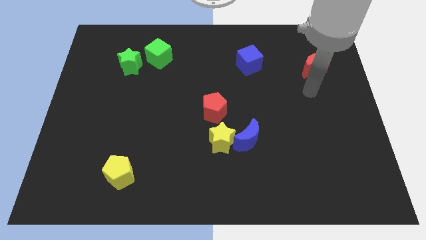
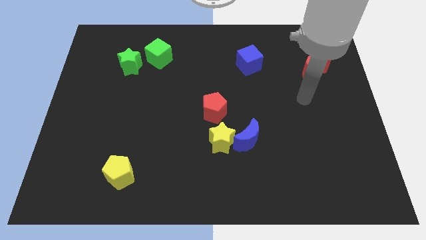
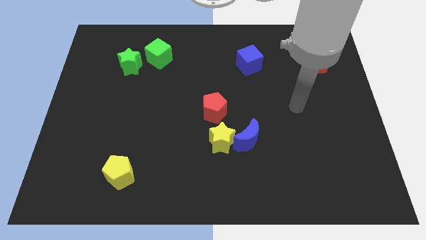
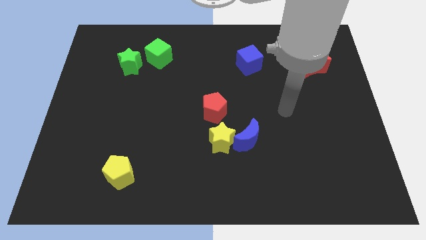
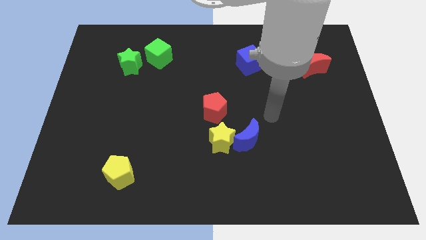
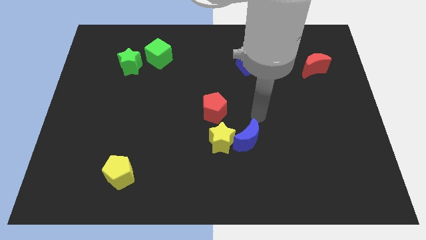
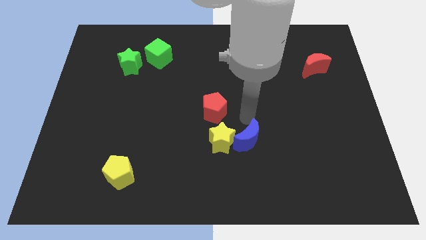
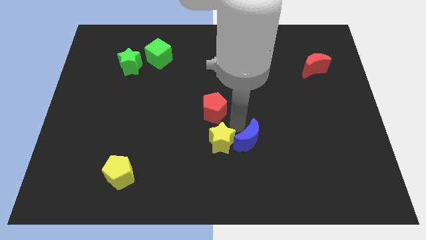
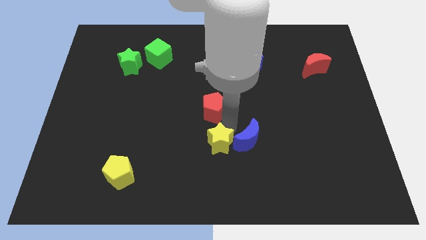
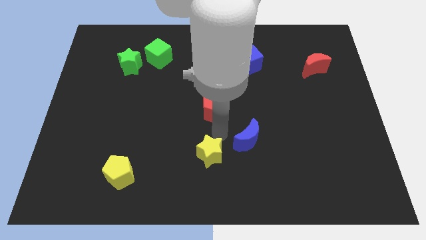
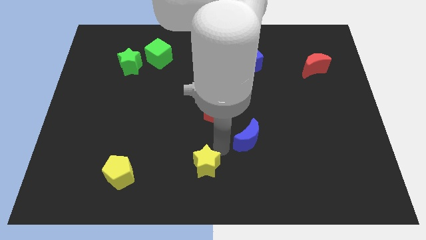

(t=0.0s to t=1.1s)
move the blue moon away from the yellow star

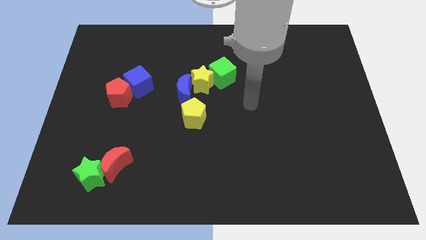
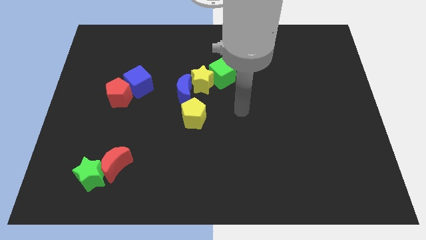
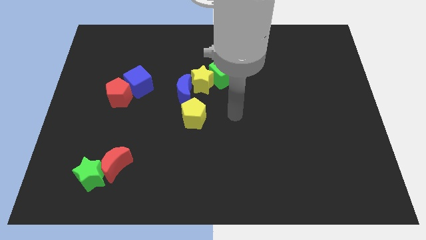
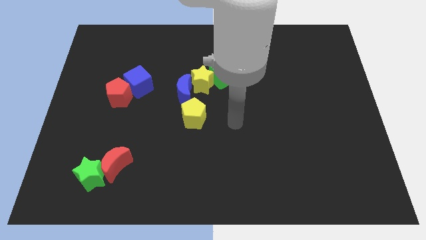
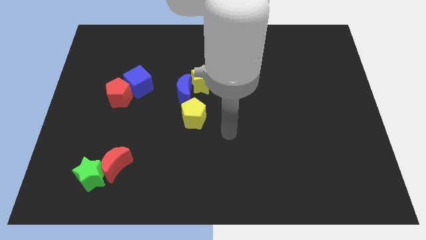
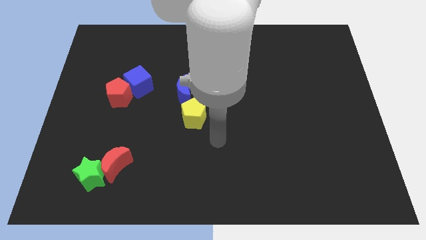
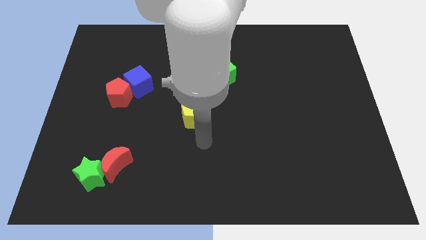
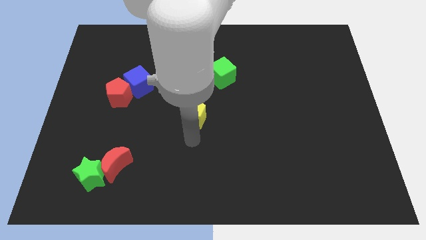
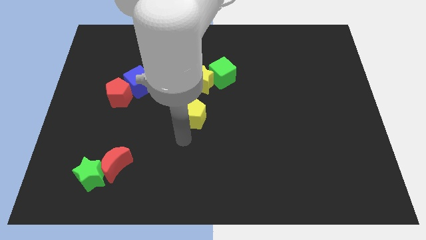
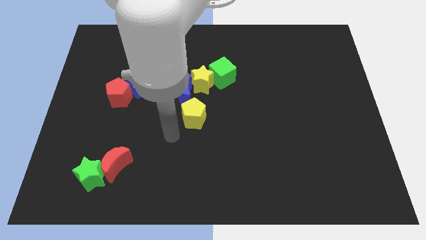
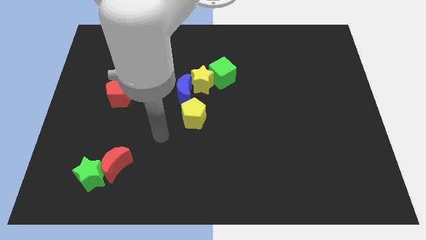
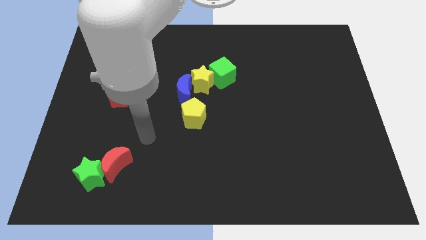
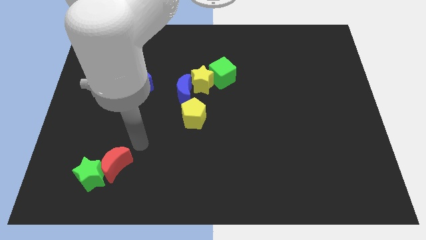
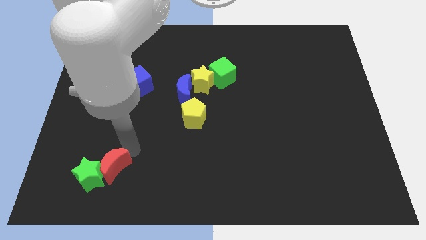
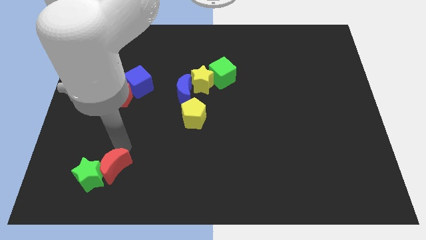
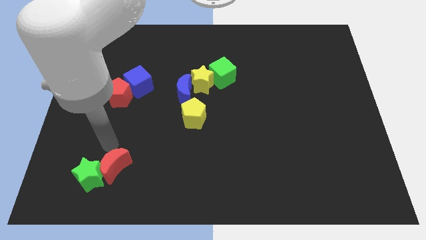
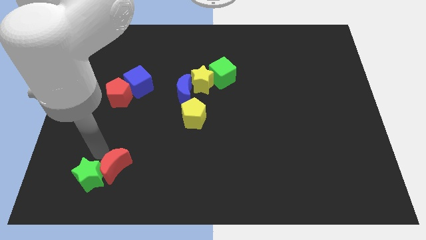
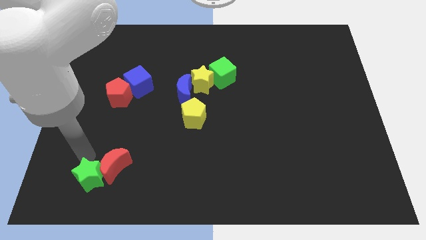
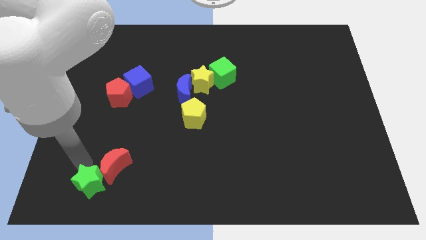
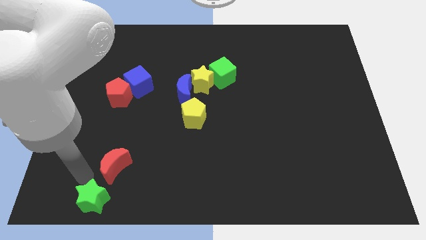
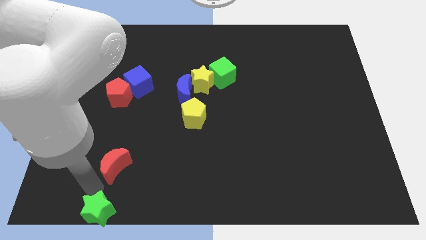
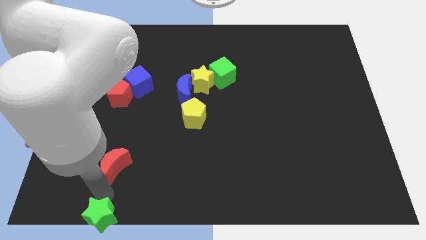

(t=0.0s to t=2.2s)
move the red moon away from the green star

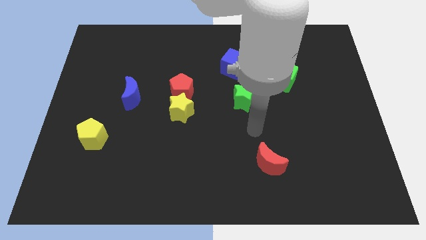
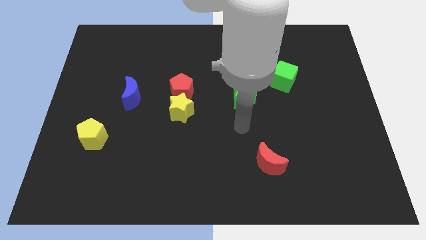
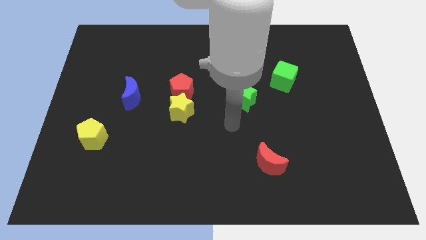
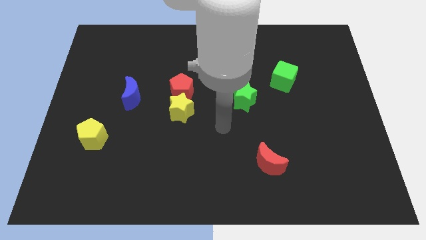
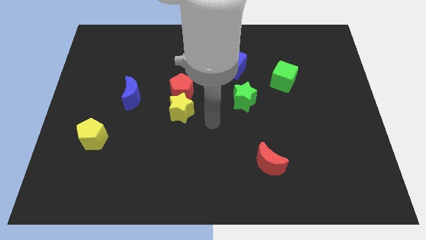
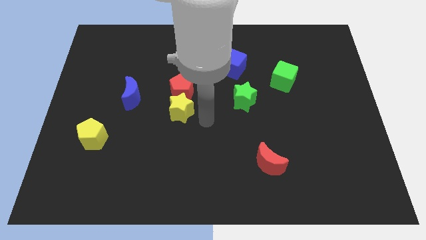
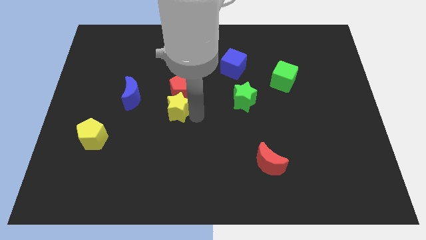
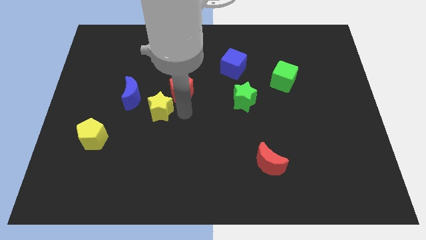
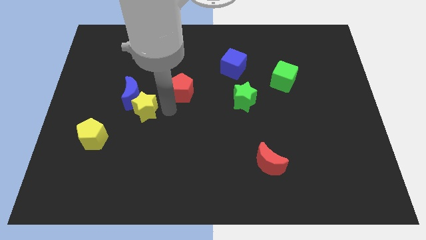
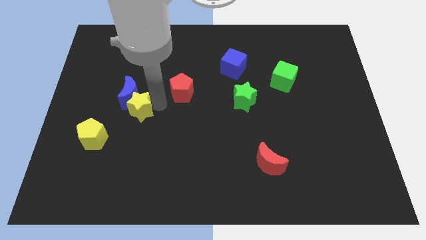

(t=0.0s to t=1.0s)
separate the red pentagon from the yellow star

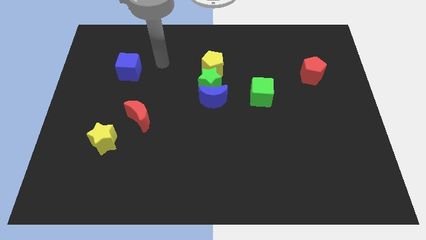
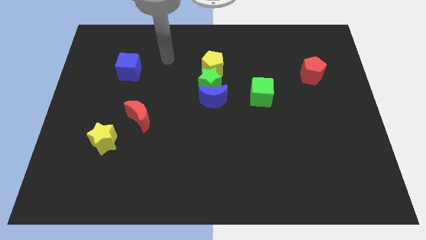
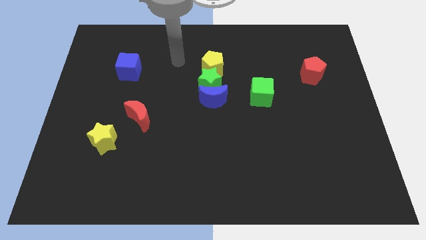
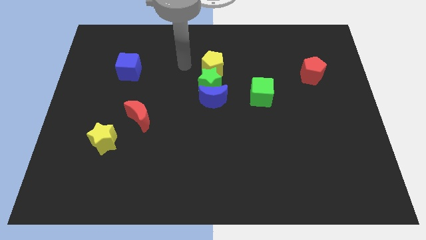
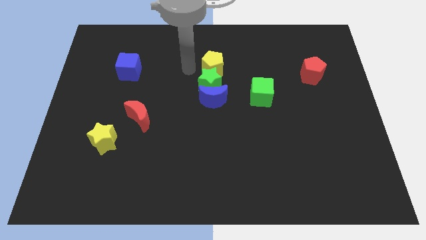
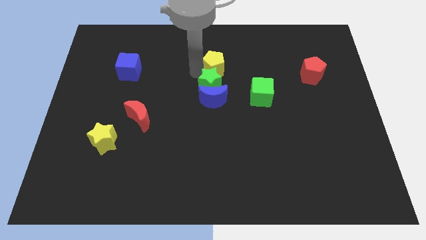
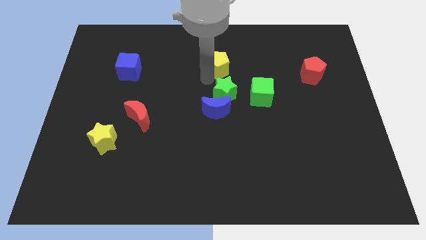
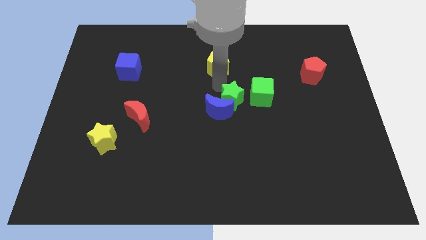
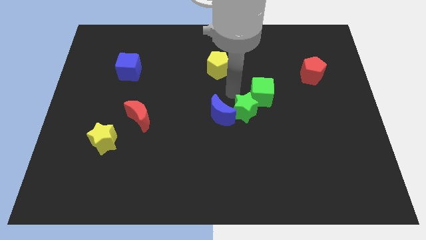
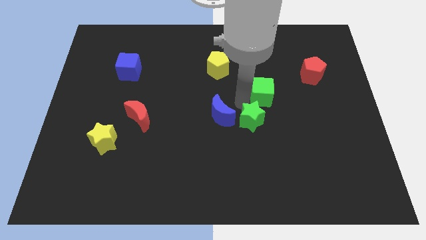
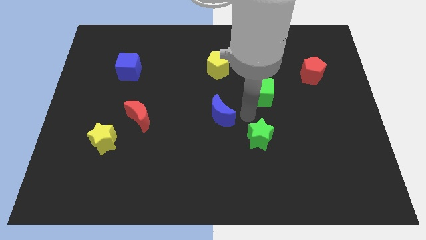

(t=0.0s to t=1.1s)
move the blue moon away from the green star

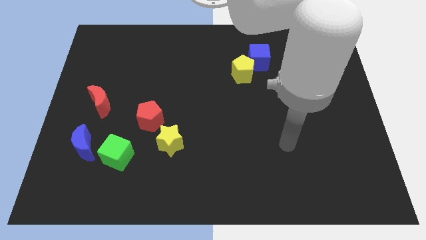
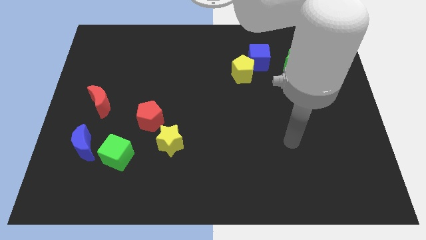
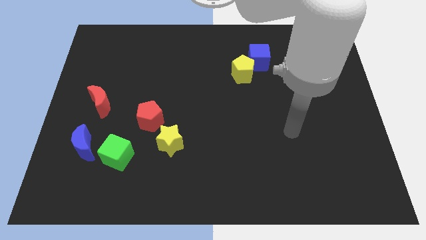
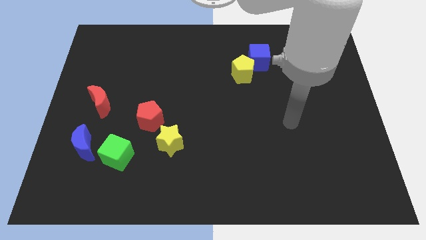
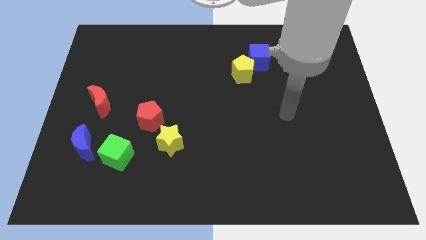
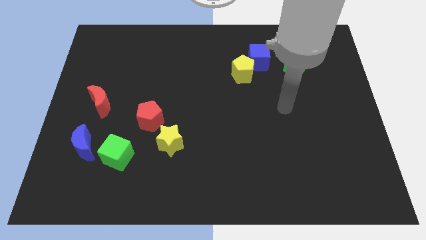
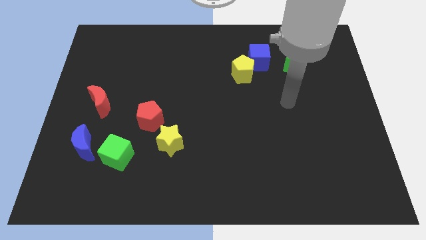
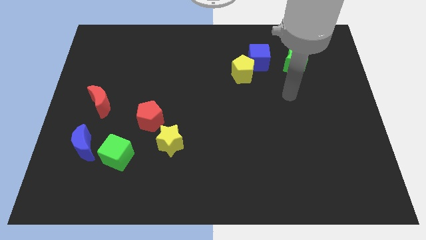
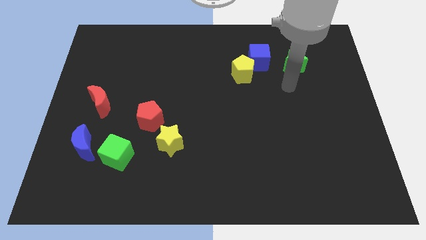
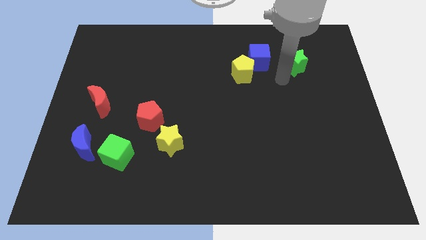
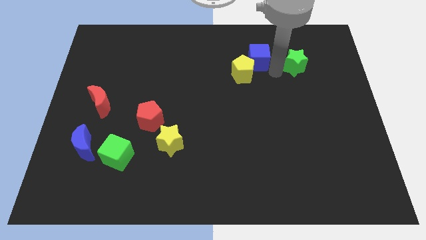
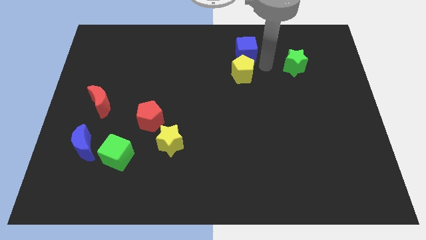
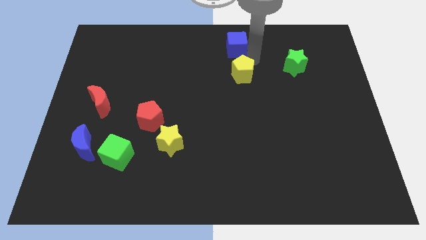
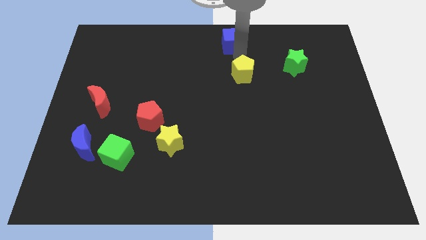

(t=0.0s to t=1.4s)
move the yellow pentagon away from the blue cube

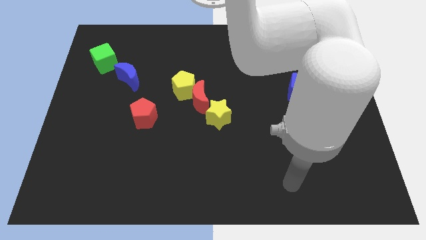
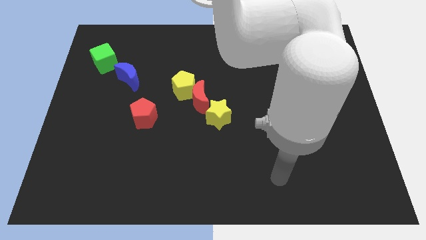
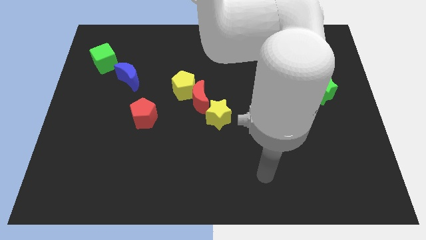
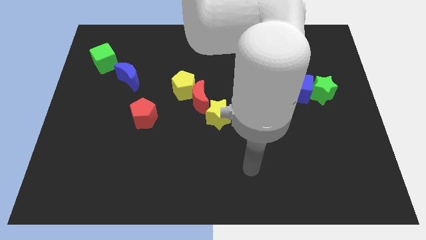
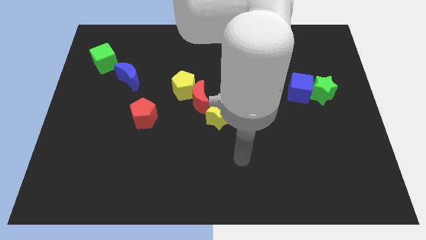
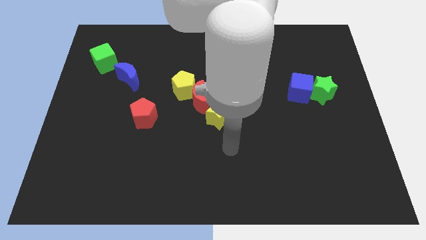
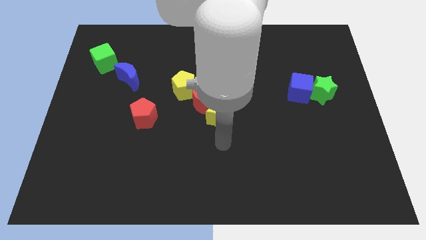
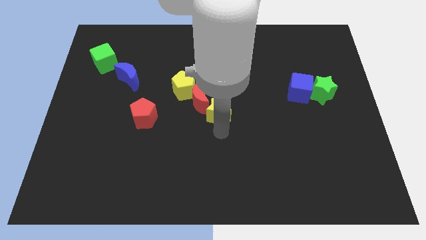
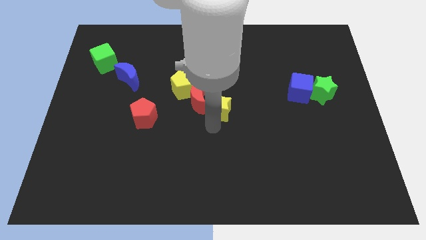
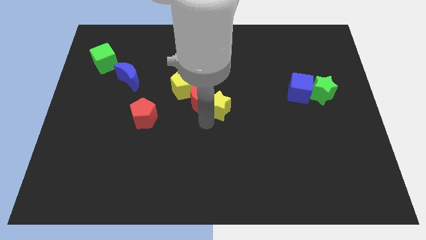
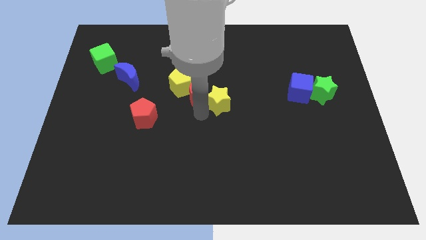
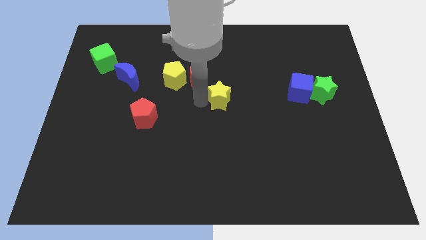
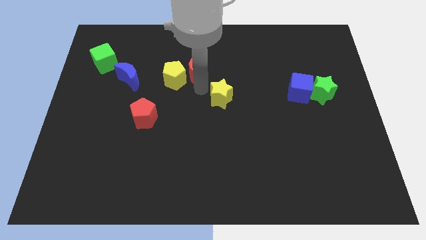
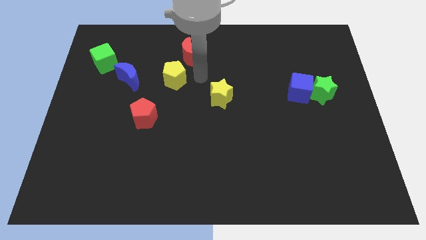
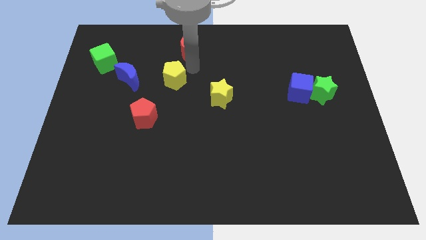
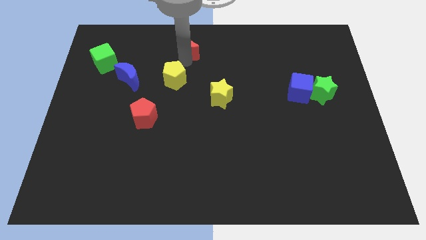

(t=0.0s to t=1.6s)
pull the yellow pentagon apart from the red moon

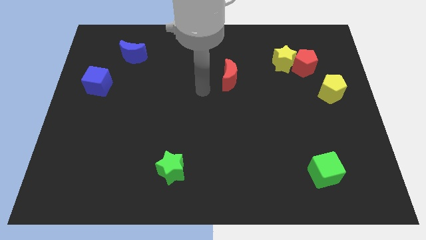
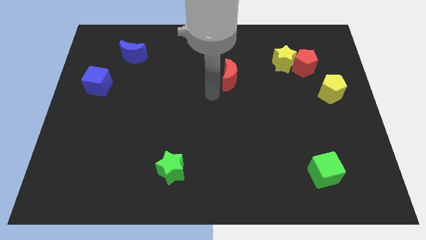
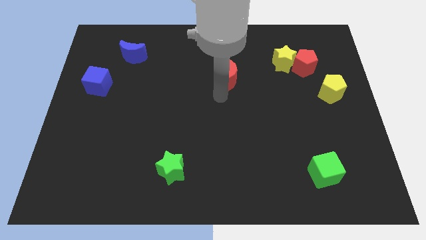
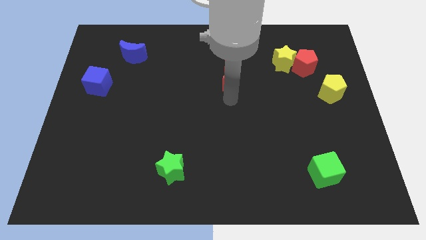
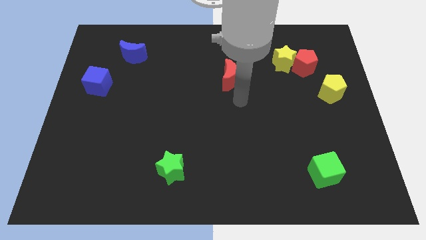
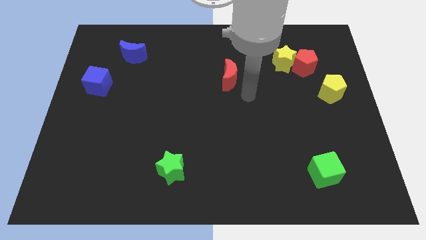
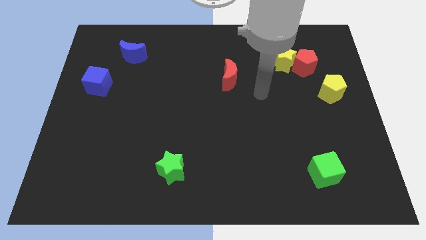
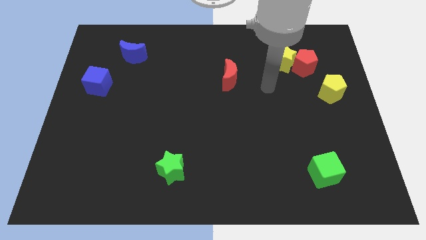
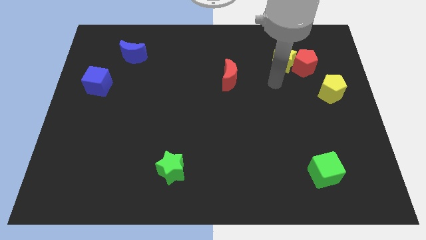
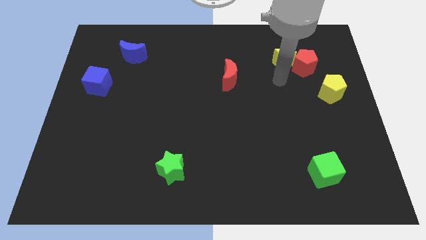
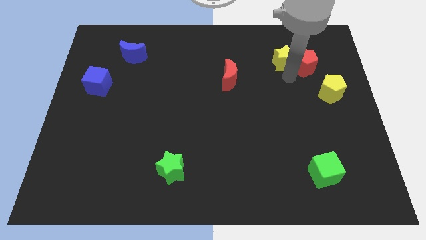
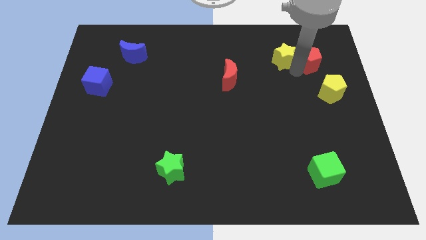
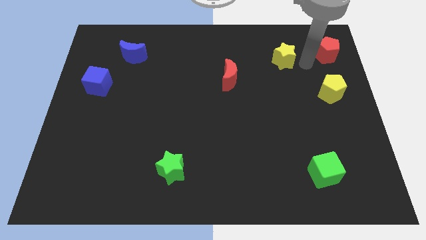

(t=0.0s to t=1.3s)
move the yellow star away from the red pentagon
